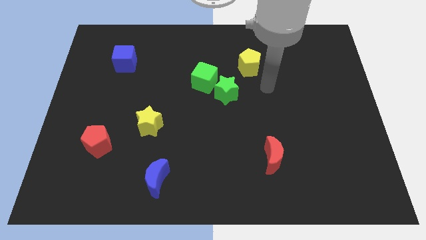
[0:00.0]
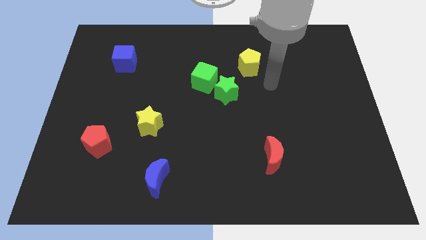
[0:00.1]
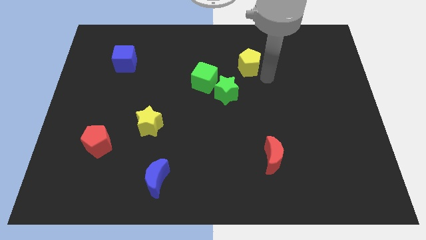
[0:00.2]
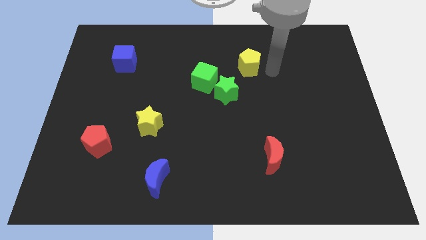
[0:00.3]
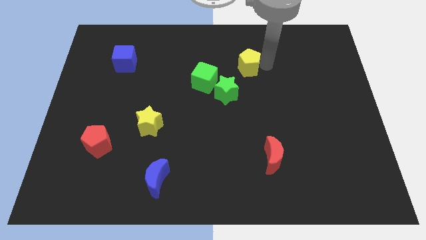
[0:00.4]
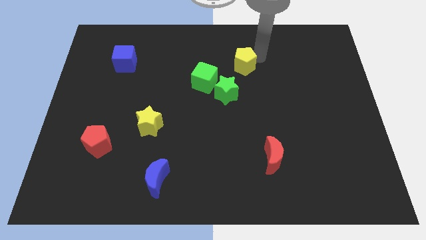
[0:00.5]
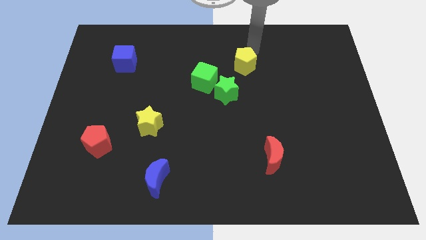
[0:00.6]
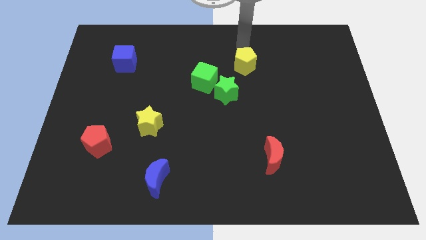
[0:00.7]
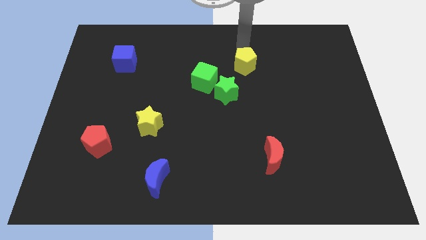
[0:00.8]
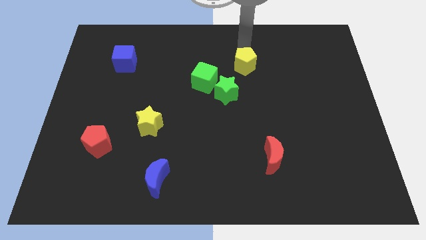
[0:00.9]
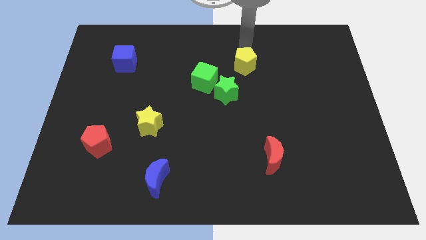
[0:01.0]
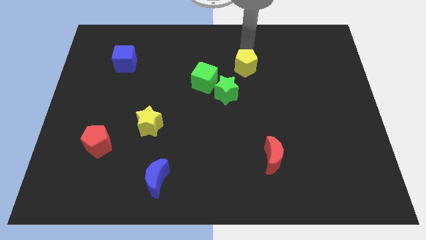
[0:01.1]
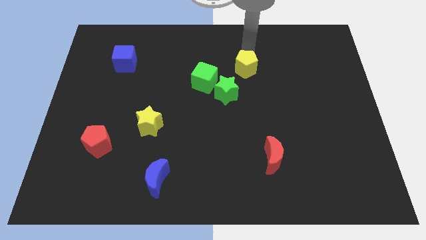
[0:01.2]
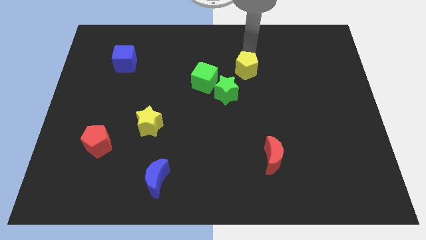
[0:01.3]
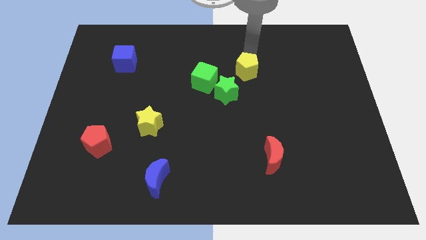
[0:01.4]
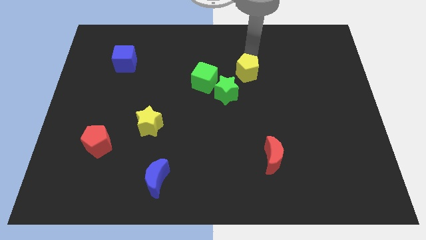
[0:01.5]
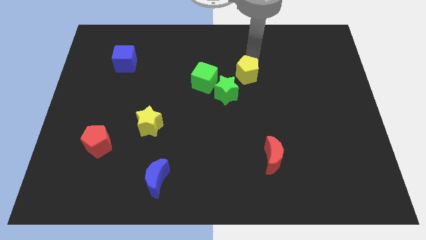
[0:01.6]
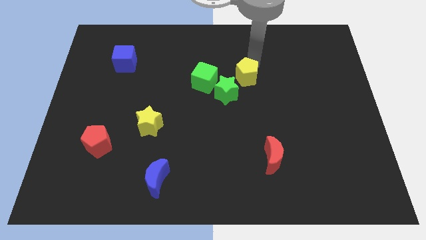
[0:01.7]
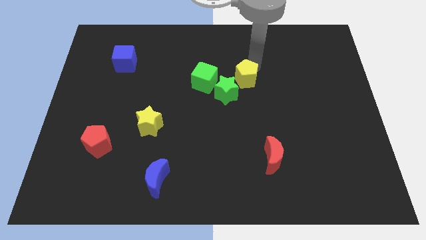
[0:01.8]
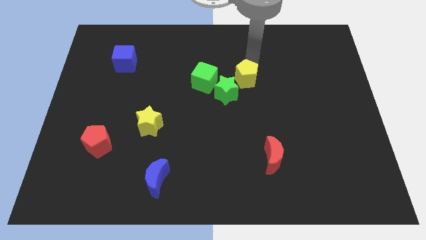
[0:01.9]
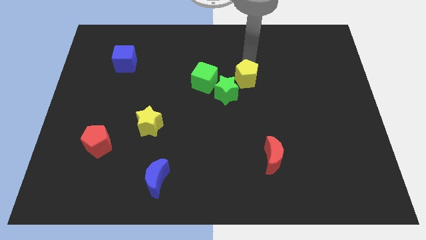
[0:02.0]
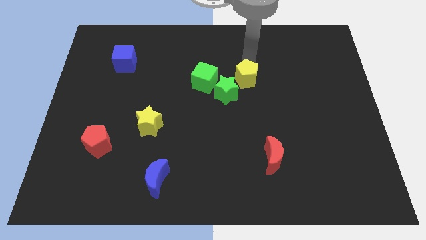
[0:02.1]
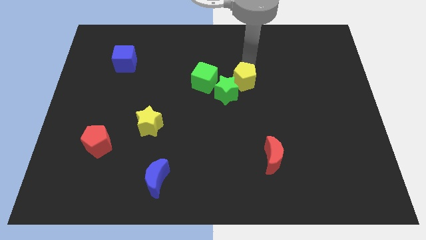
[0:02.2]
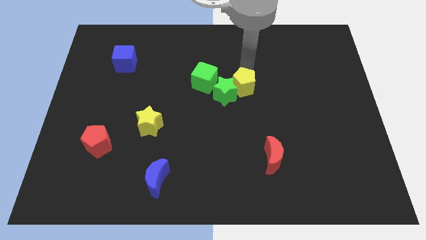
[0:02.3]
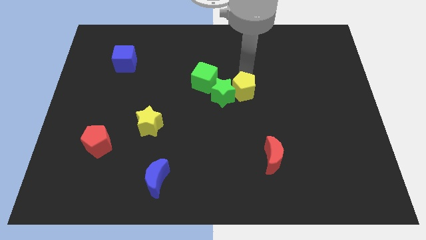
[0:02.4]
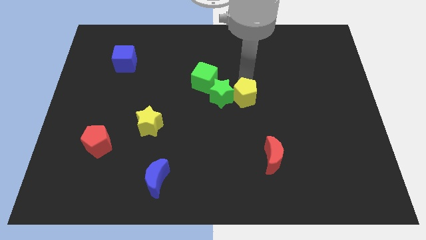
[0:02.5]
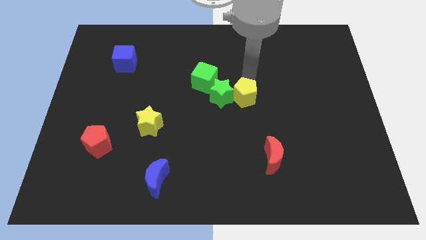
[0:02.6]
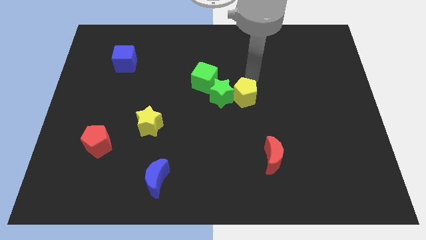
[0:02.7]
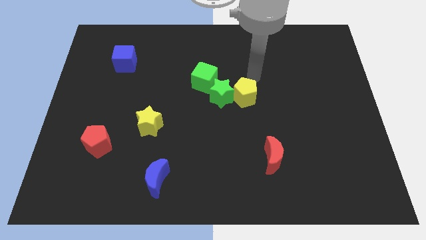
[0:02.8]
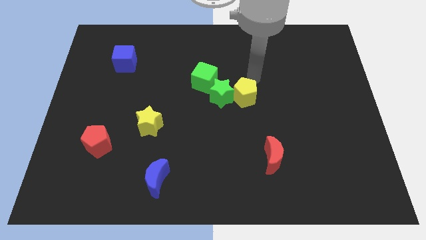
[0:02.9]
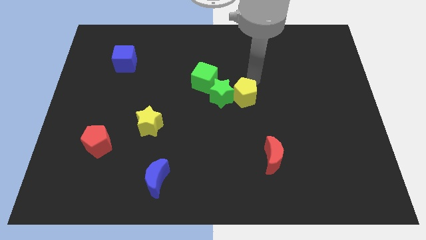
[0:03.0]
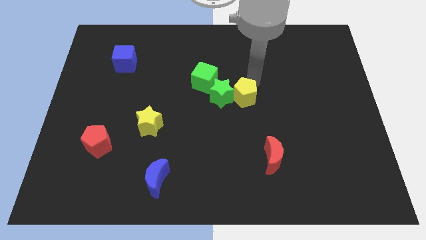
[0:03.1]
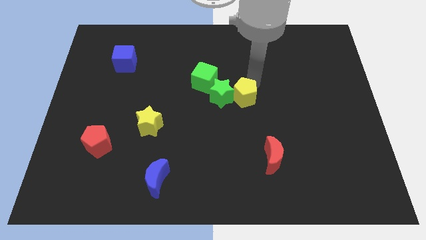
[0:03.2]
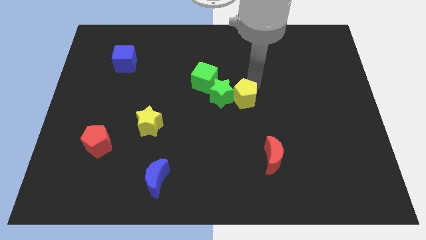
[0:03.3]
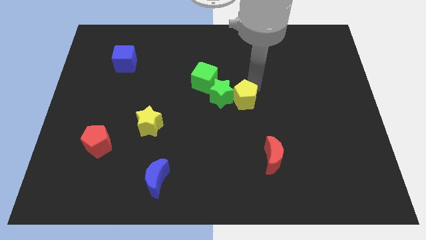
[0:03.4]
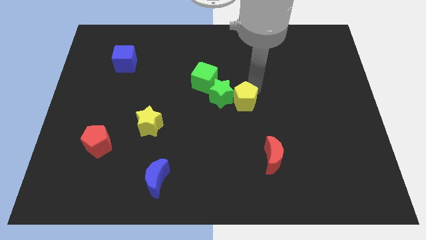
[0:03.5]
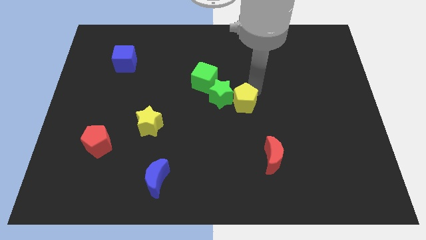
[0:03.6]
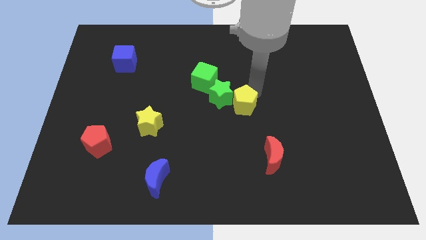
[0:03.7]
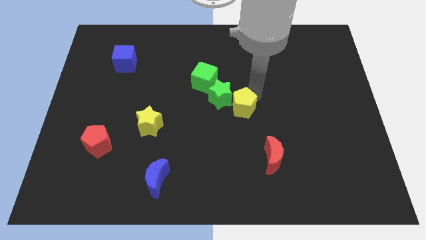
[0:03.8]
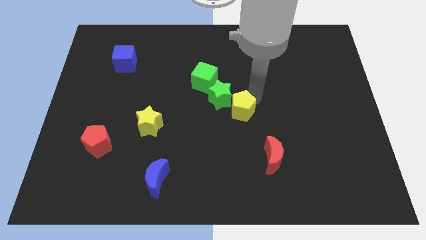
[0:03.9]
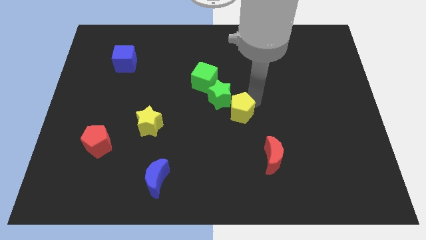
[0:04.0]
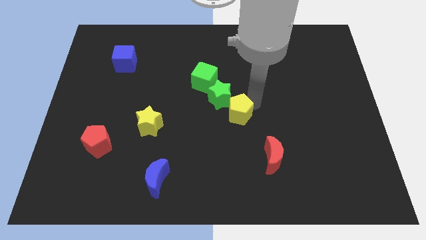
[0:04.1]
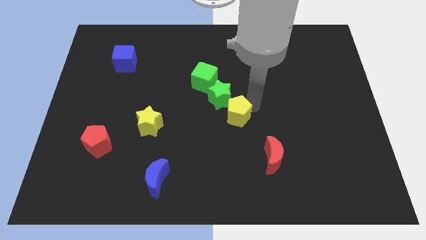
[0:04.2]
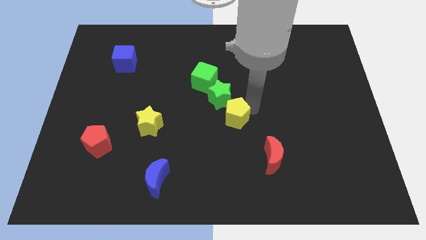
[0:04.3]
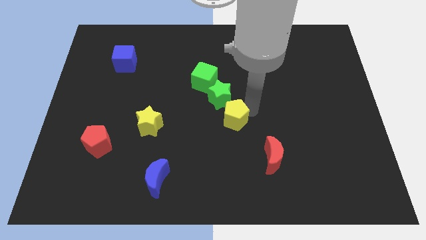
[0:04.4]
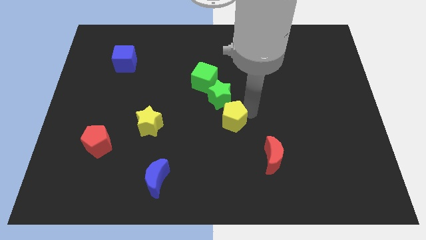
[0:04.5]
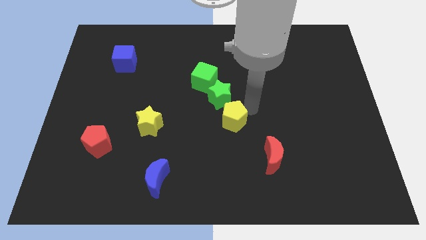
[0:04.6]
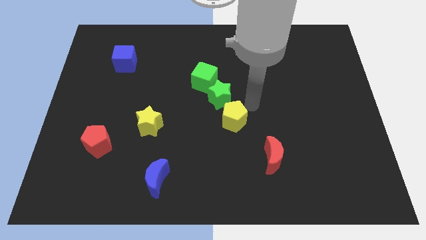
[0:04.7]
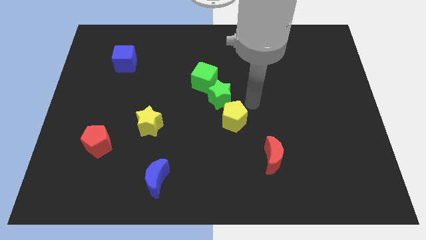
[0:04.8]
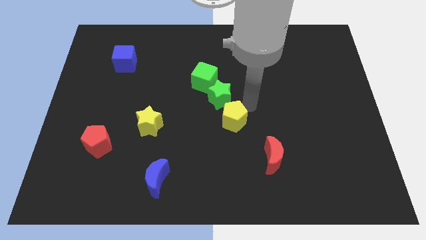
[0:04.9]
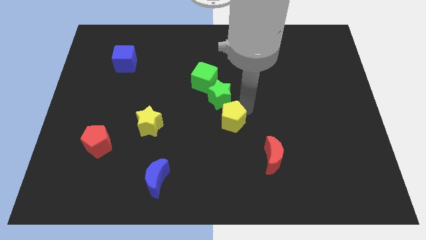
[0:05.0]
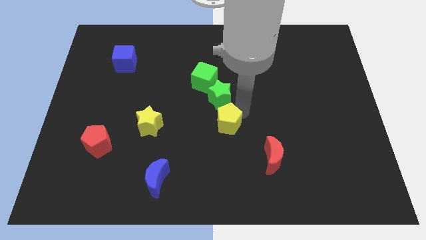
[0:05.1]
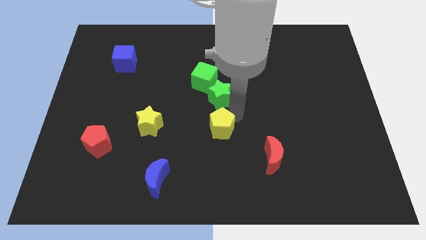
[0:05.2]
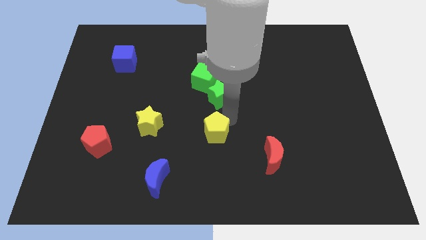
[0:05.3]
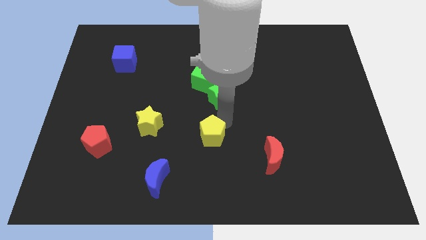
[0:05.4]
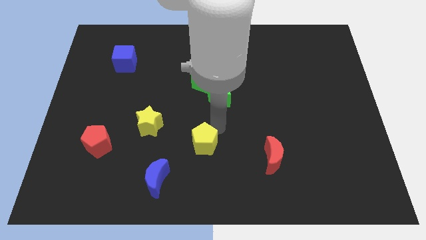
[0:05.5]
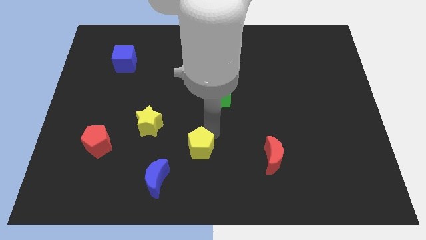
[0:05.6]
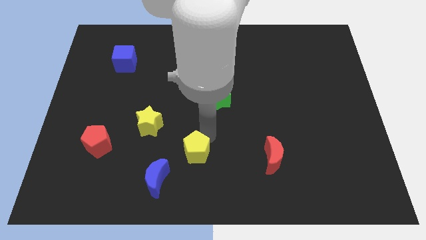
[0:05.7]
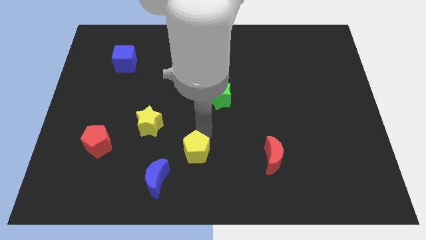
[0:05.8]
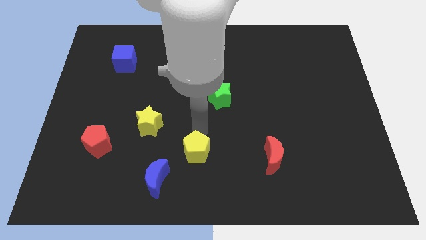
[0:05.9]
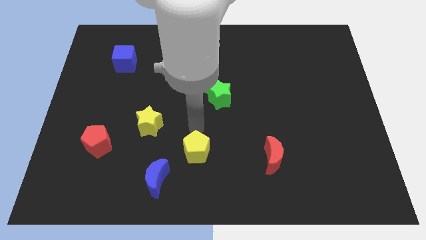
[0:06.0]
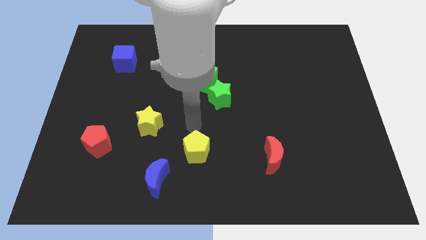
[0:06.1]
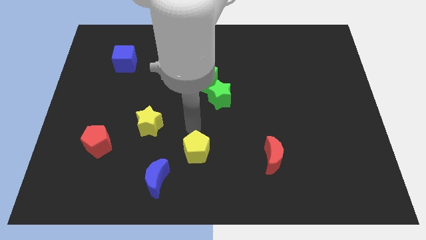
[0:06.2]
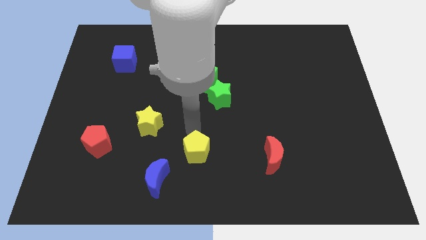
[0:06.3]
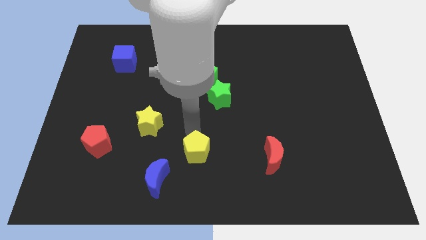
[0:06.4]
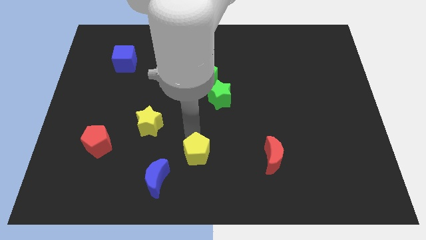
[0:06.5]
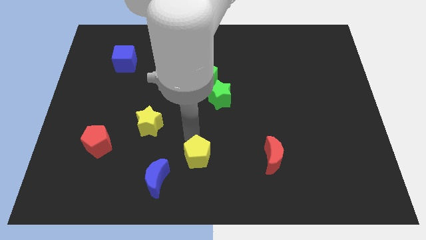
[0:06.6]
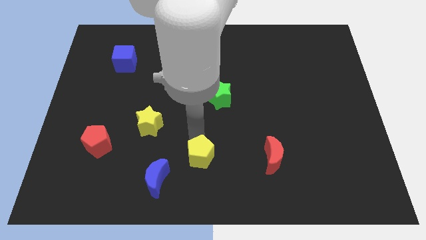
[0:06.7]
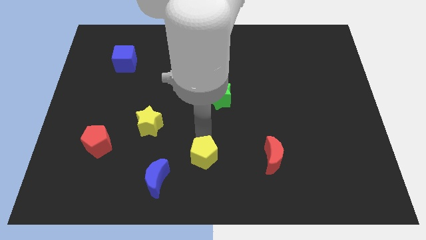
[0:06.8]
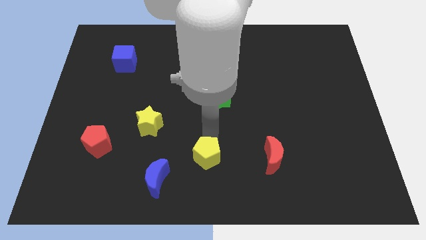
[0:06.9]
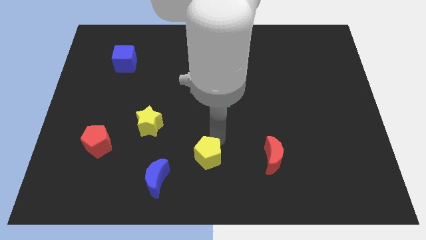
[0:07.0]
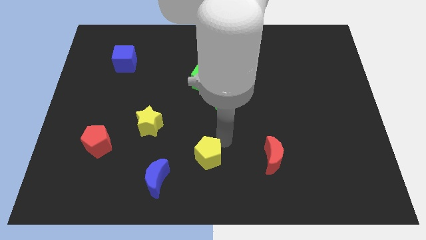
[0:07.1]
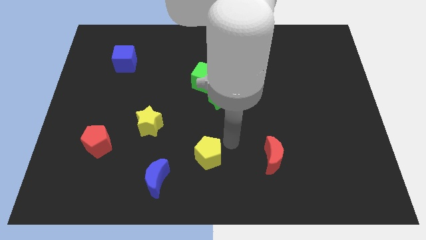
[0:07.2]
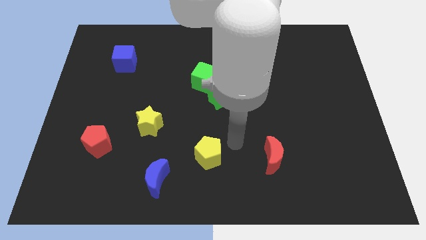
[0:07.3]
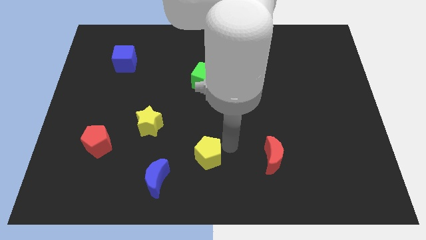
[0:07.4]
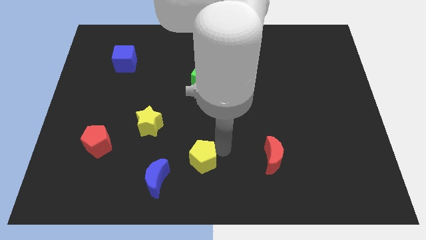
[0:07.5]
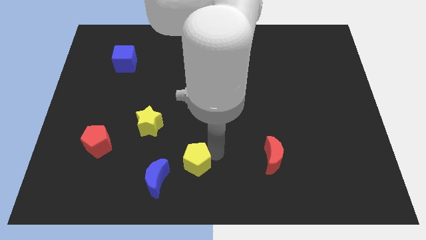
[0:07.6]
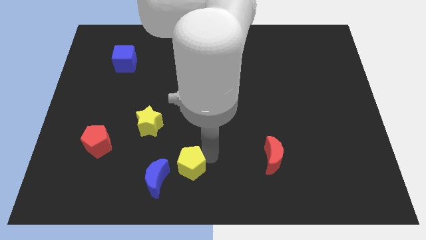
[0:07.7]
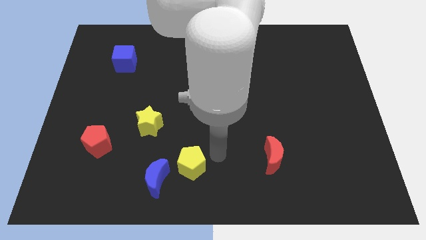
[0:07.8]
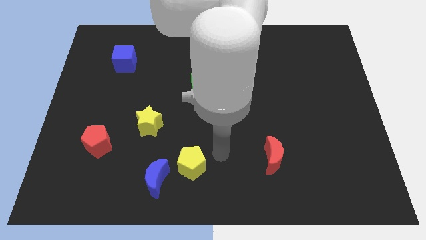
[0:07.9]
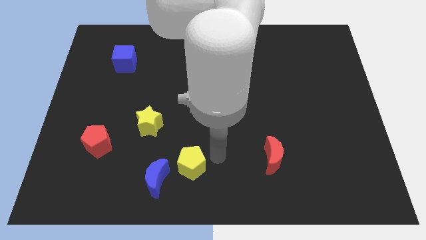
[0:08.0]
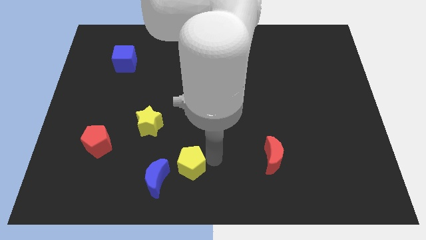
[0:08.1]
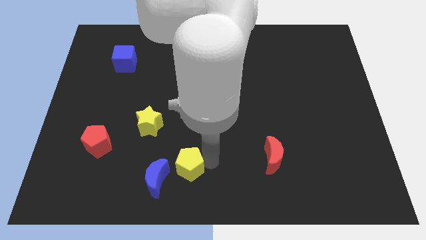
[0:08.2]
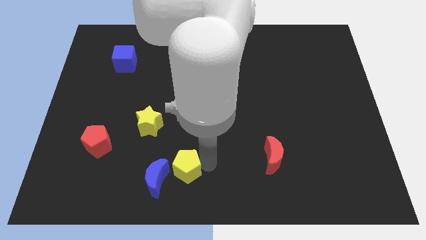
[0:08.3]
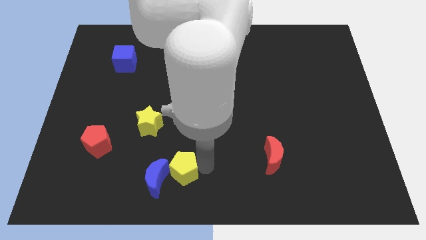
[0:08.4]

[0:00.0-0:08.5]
put the yellow pentagon towards the blue moon
